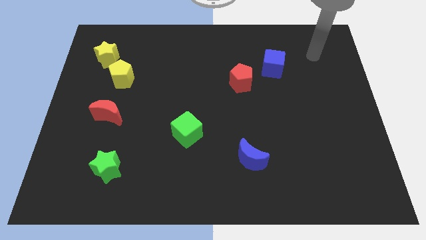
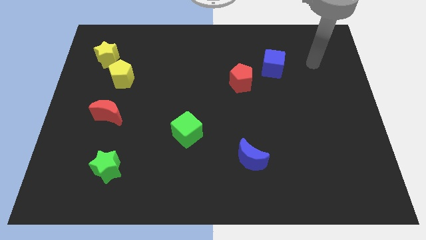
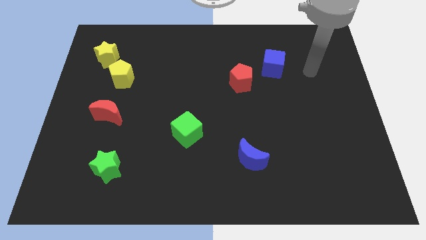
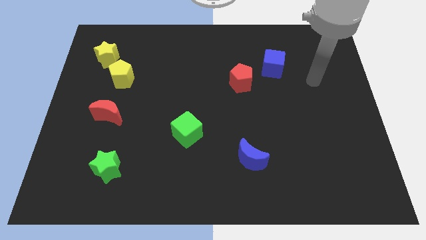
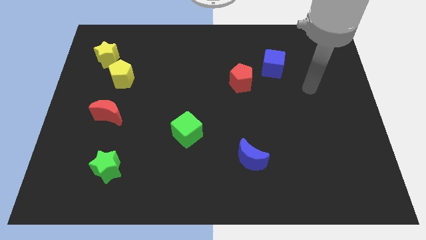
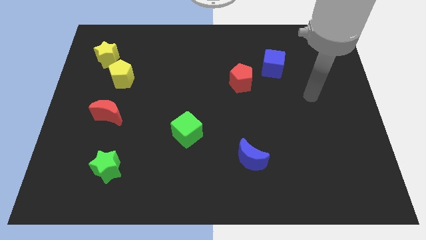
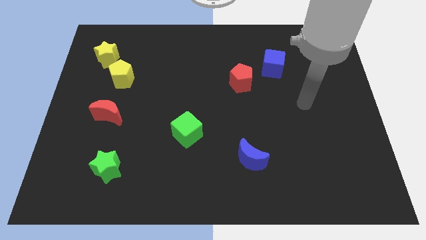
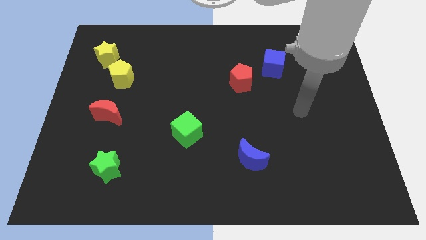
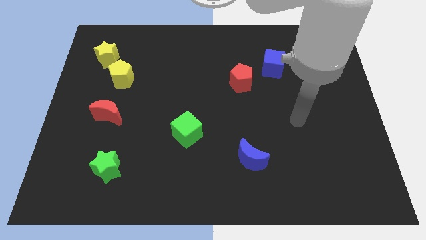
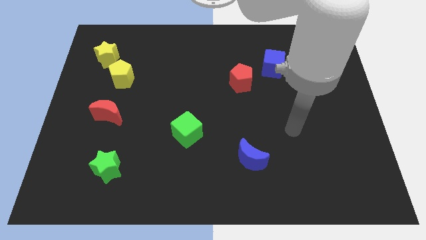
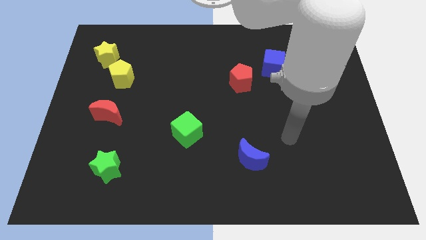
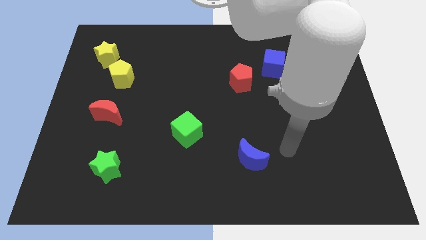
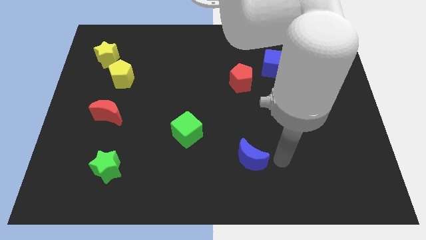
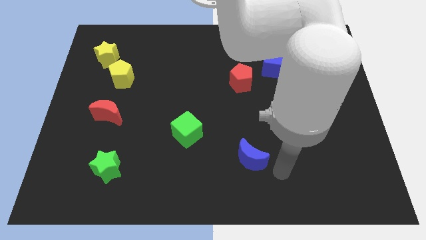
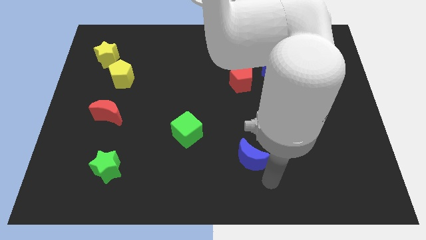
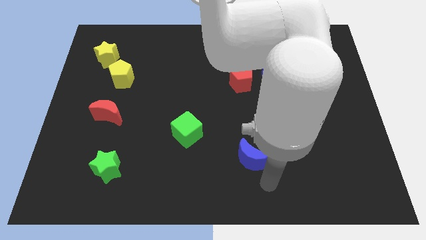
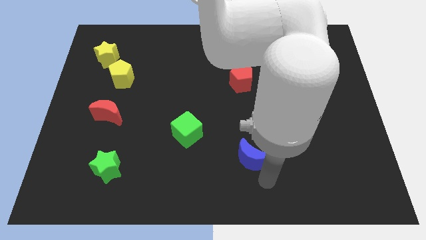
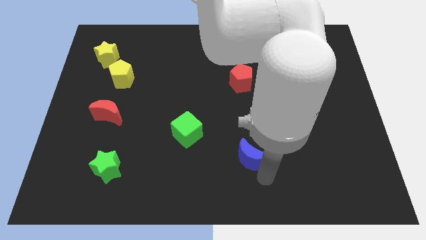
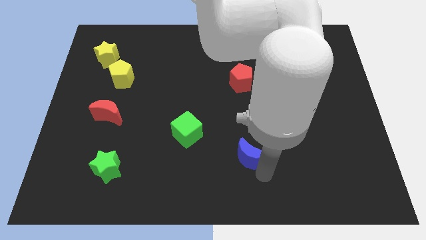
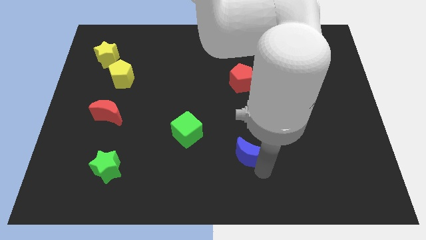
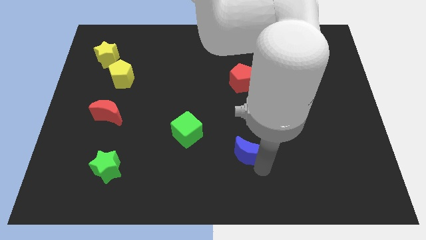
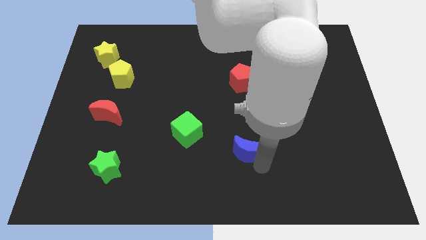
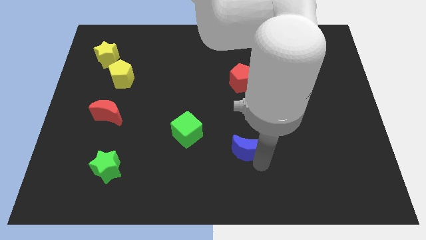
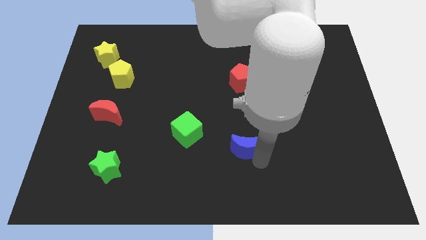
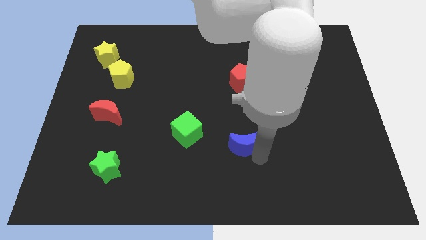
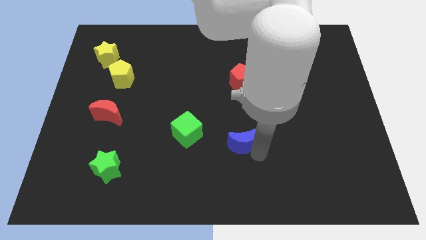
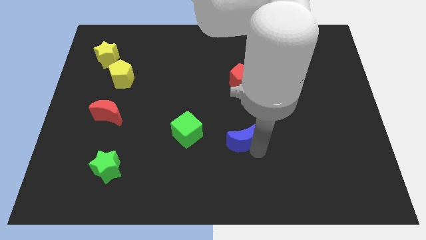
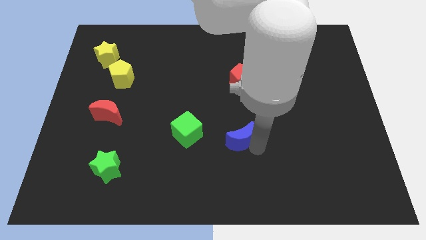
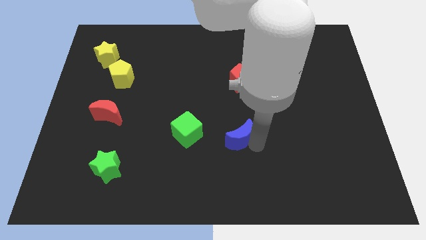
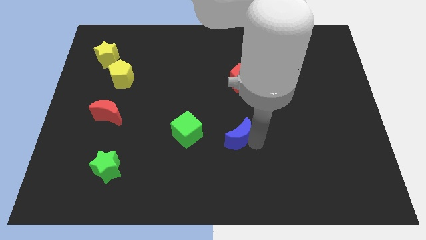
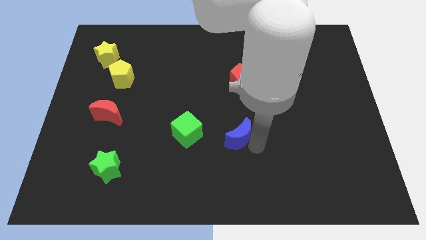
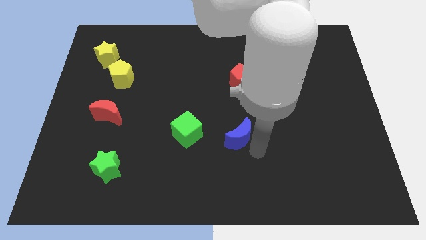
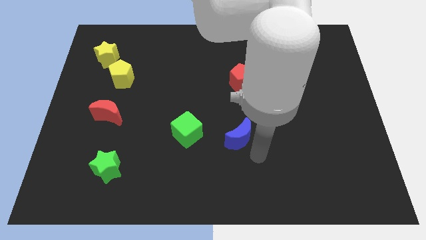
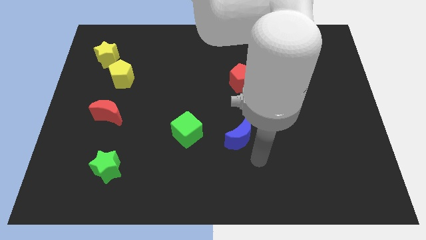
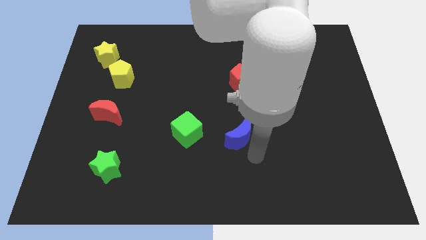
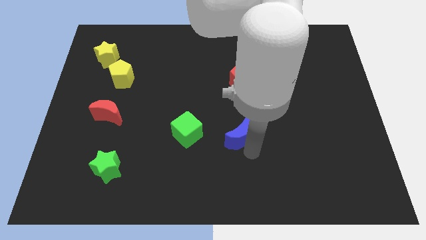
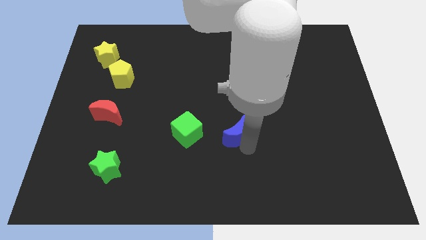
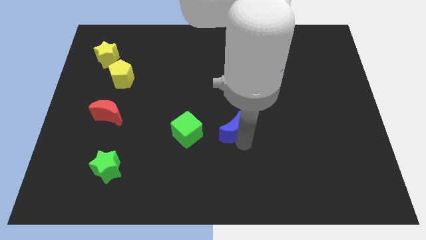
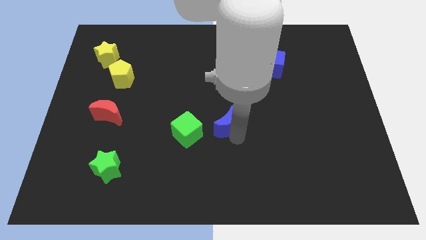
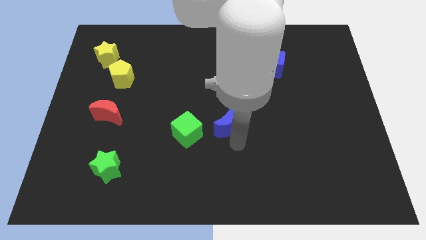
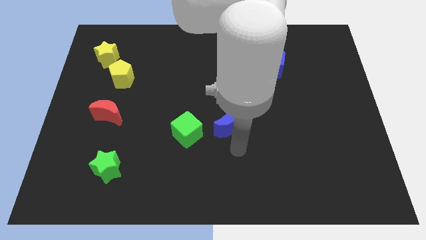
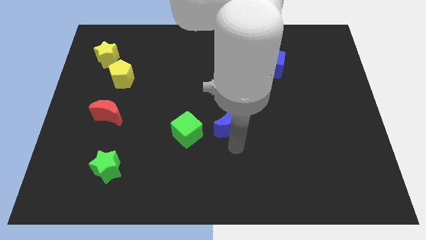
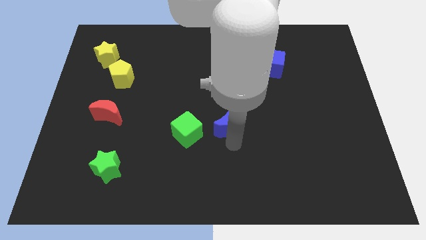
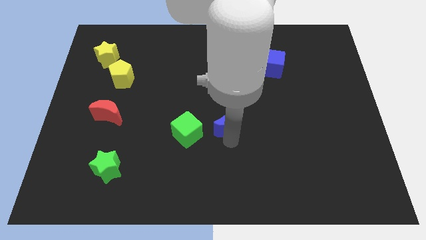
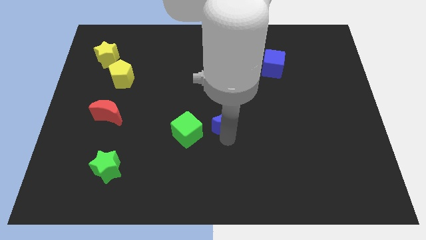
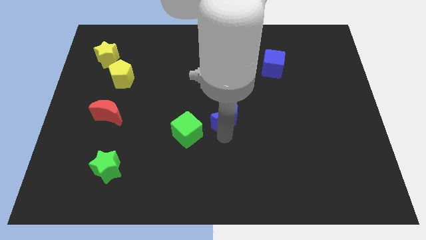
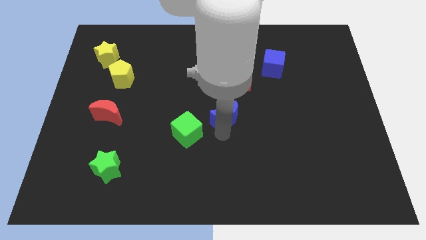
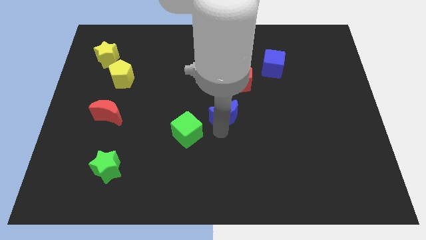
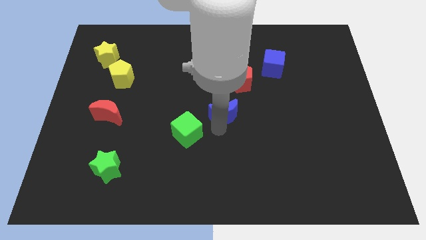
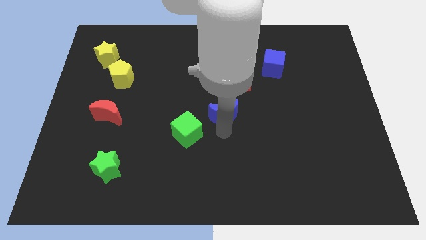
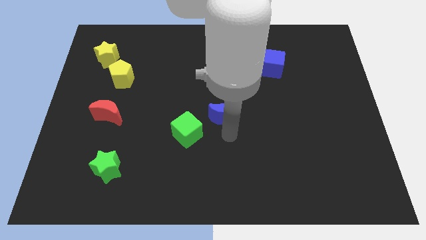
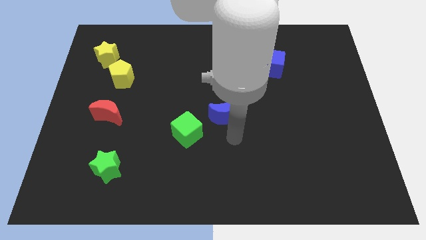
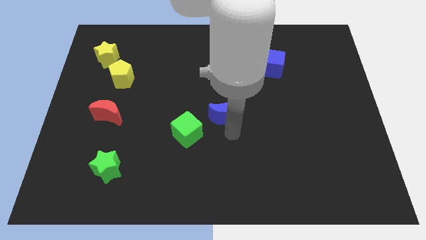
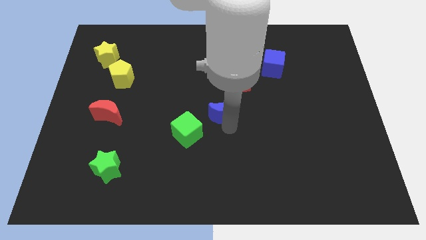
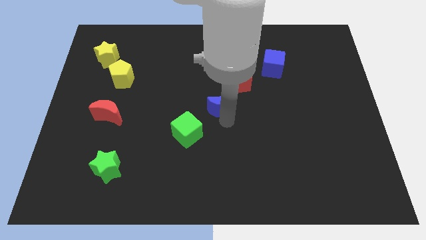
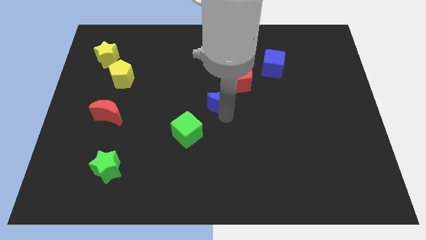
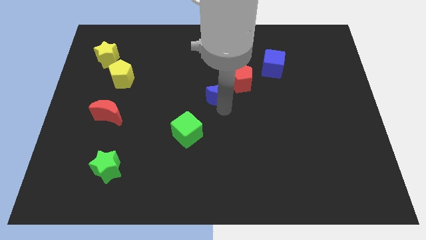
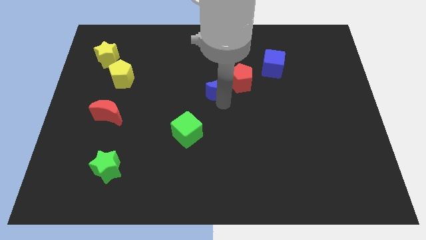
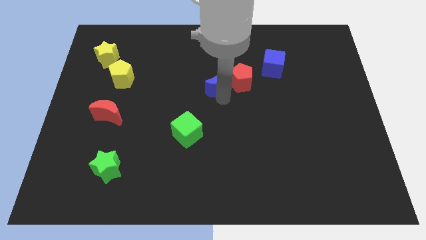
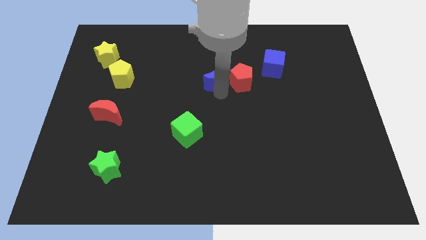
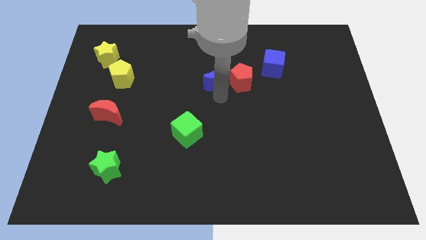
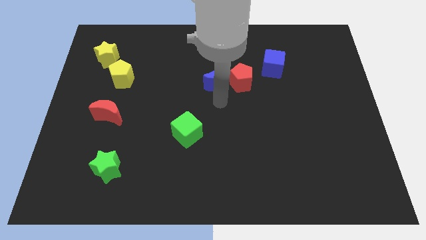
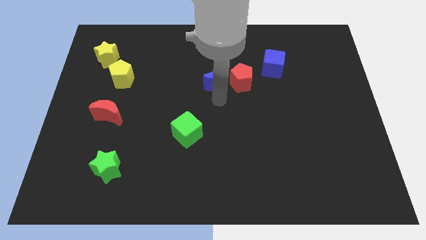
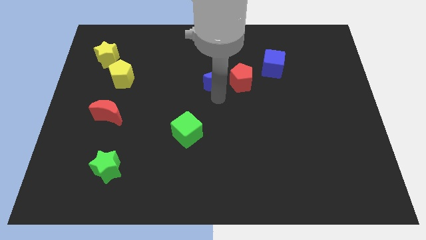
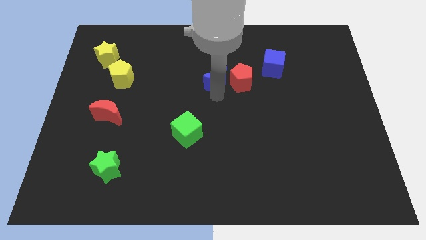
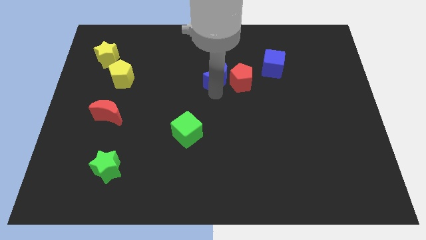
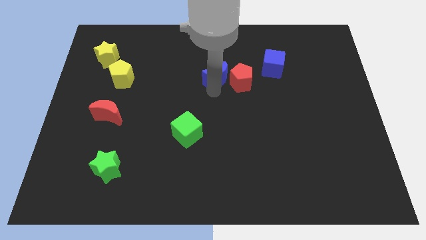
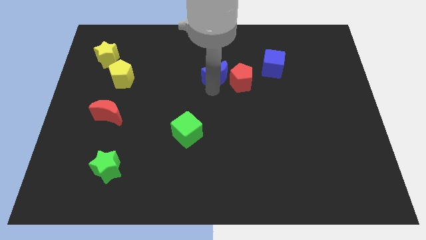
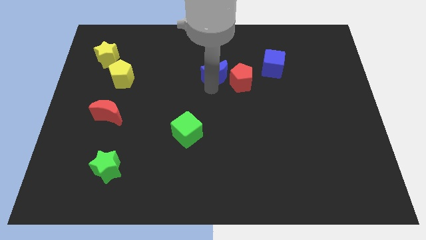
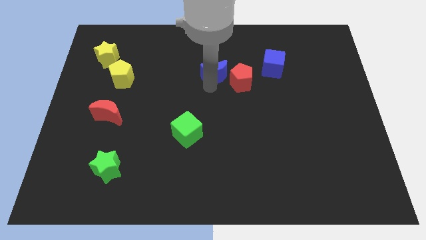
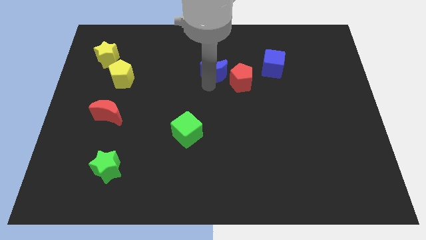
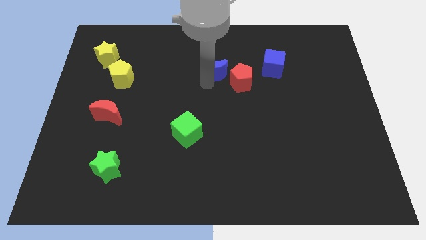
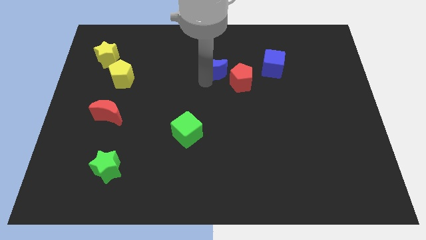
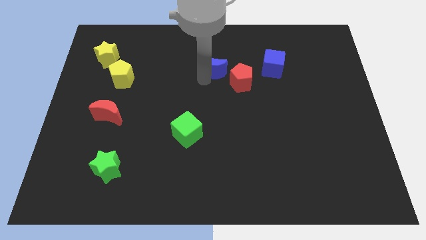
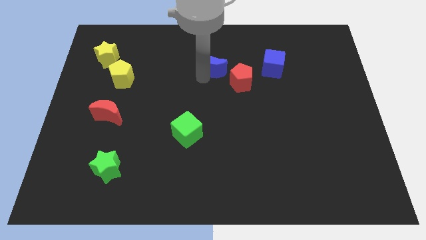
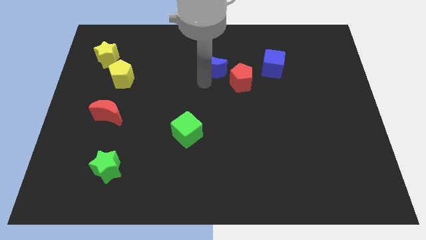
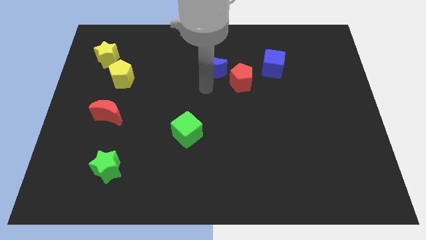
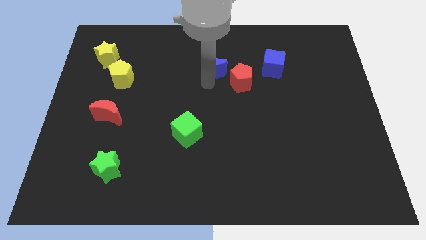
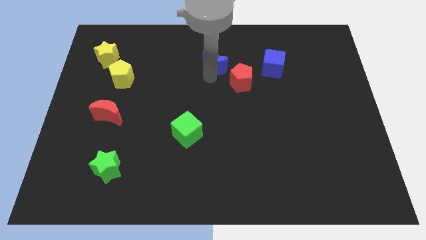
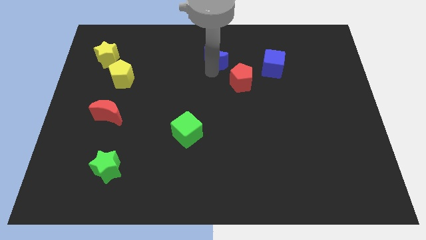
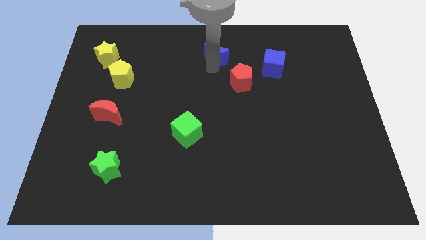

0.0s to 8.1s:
push the blue moon to the towards your base

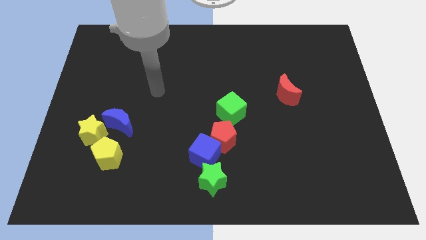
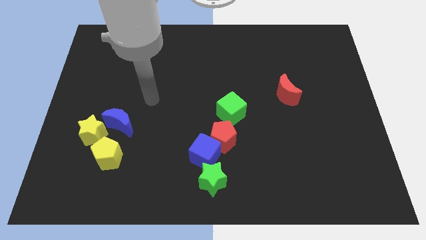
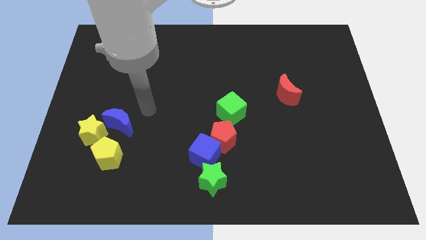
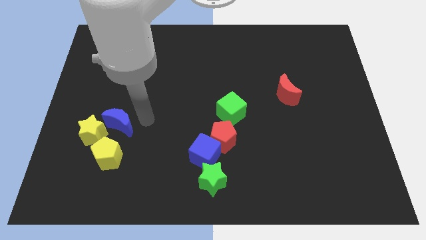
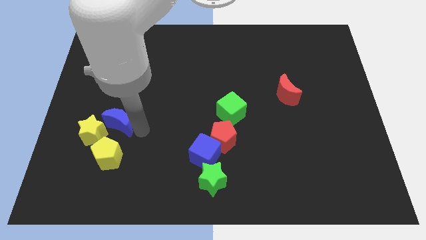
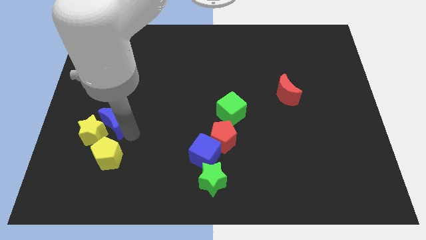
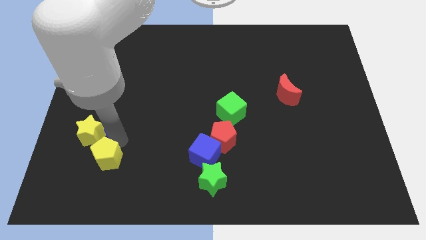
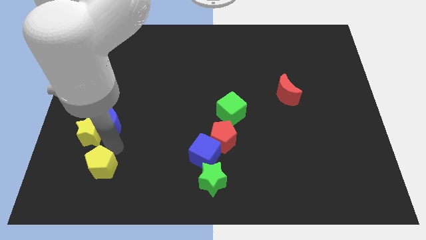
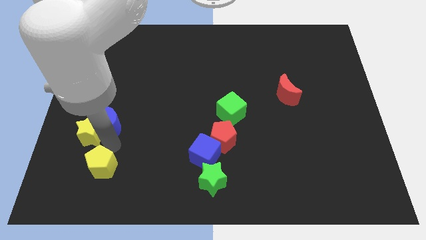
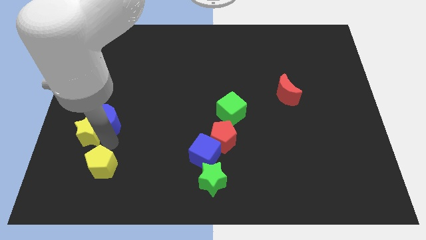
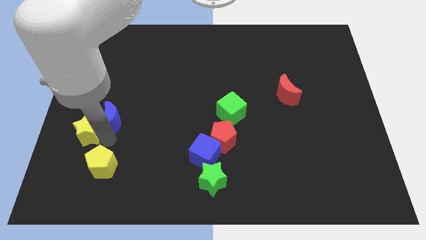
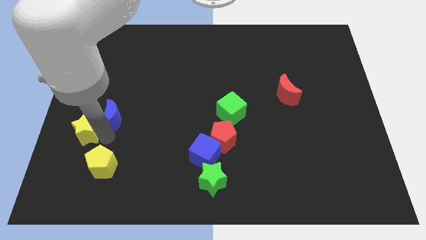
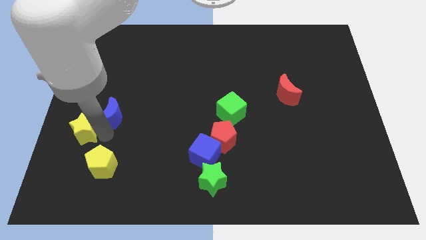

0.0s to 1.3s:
push the yellow star to the left side
